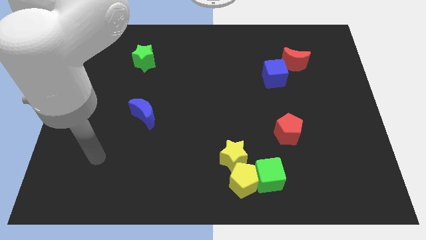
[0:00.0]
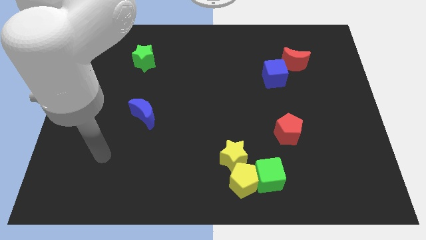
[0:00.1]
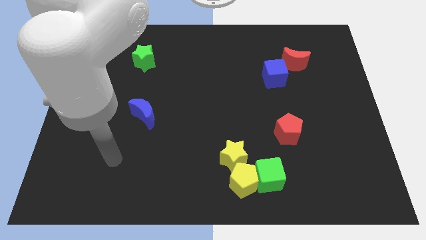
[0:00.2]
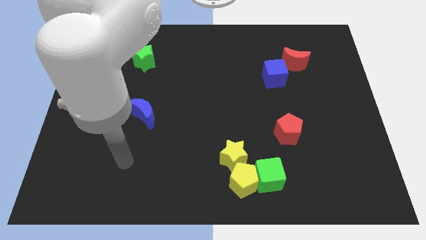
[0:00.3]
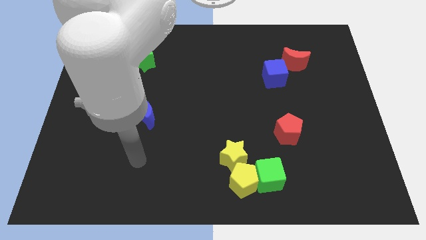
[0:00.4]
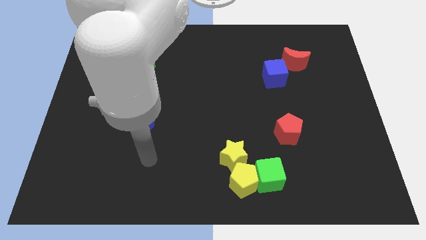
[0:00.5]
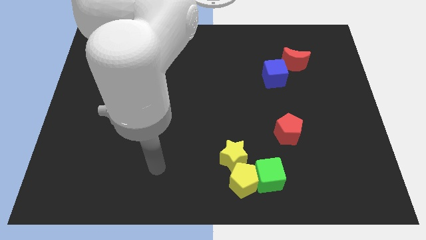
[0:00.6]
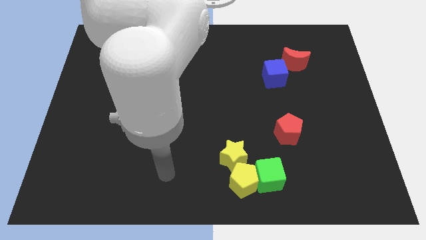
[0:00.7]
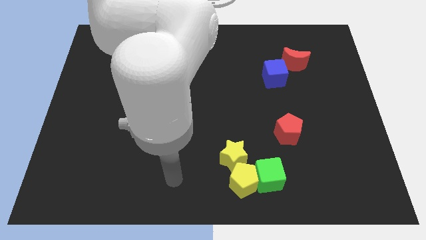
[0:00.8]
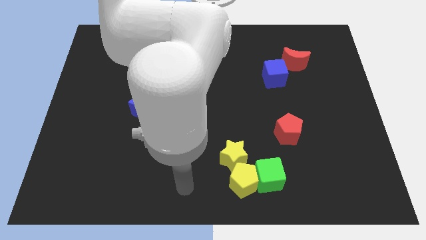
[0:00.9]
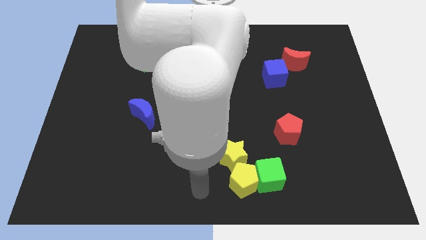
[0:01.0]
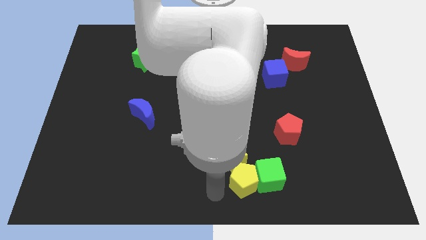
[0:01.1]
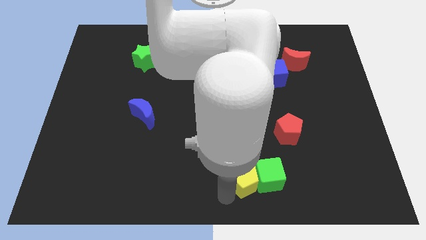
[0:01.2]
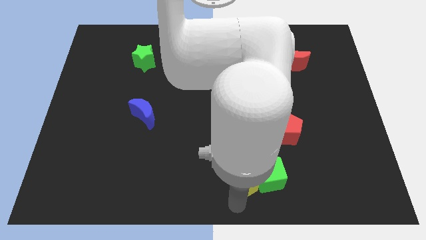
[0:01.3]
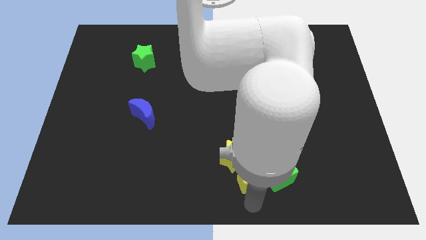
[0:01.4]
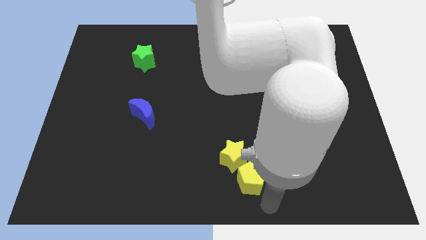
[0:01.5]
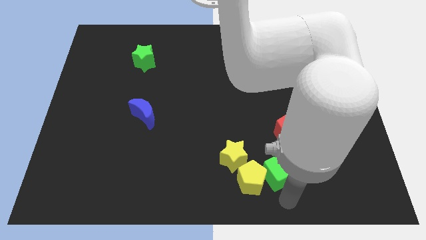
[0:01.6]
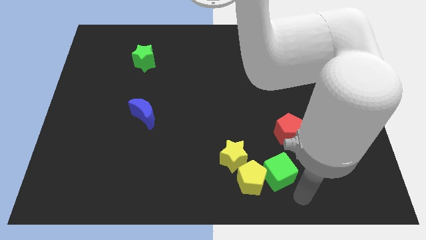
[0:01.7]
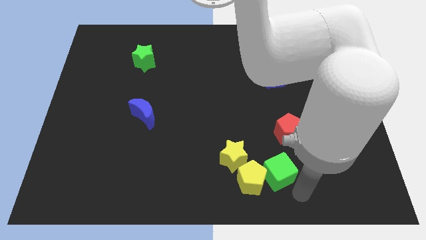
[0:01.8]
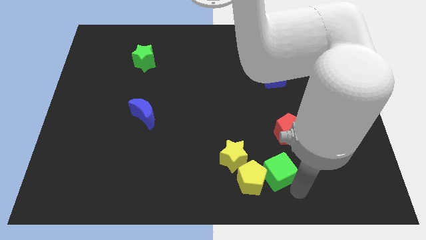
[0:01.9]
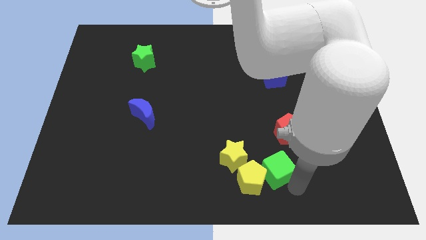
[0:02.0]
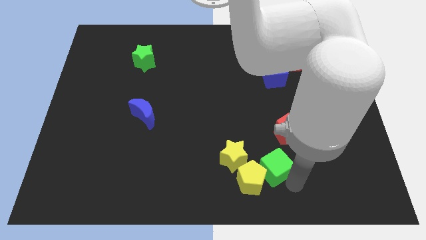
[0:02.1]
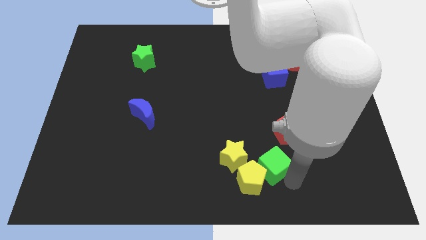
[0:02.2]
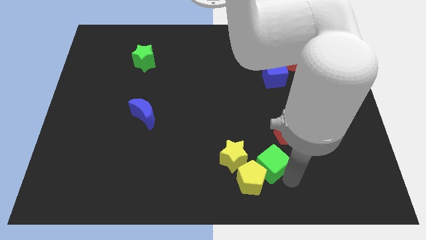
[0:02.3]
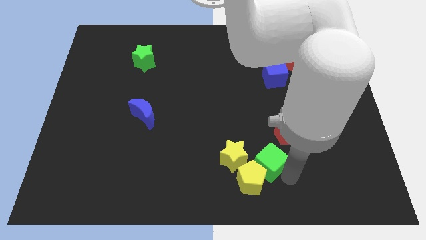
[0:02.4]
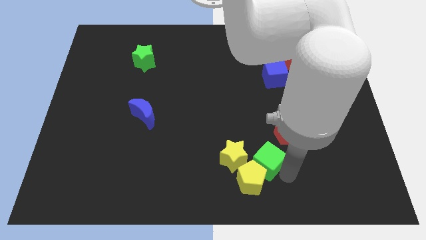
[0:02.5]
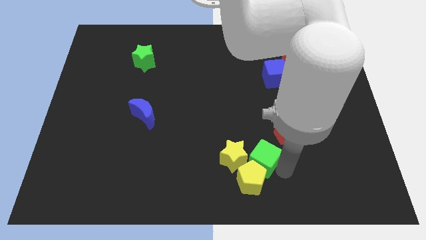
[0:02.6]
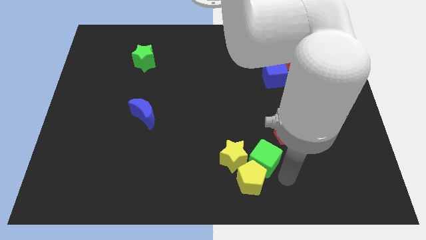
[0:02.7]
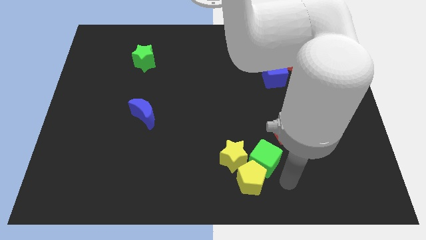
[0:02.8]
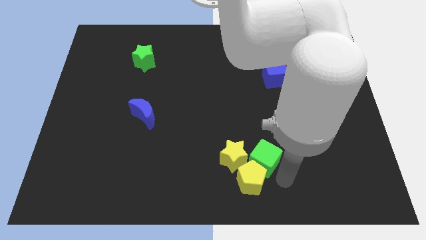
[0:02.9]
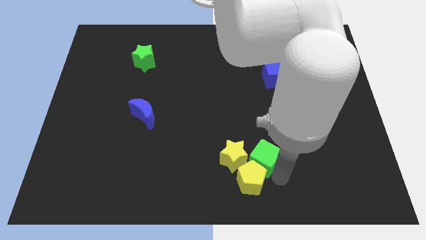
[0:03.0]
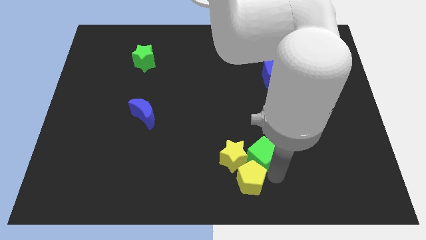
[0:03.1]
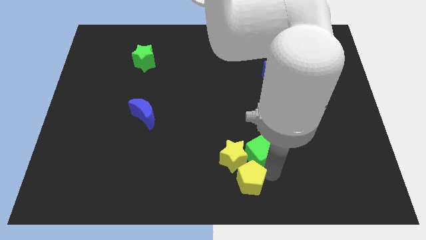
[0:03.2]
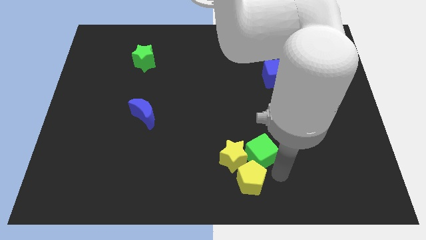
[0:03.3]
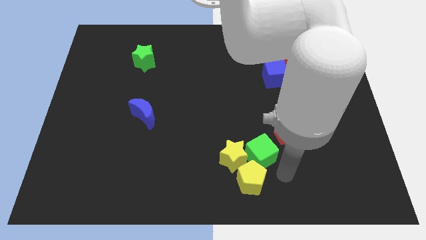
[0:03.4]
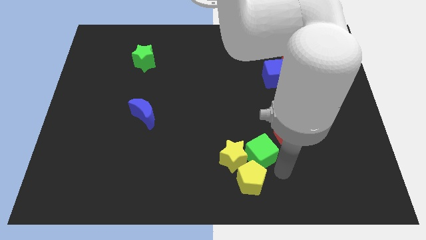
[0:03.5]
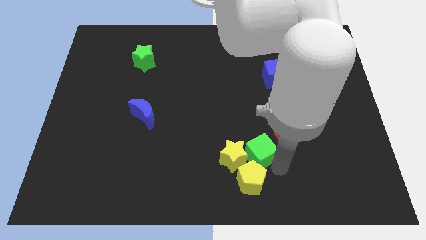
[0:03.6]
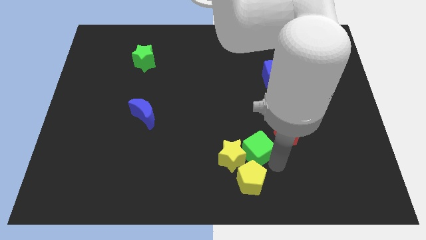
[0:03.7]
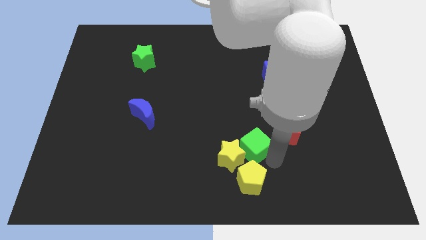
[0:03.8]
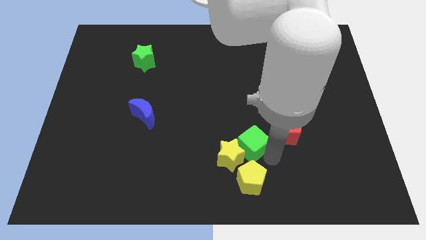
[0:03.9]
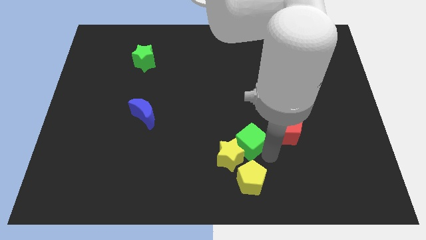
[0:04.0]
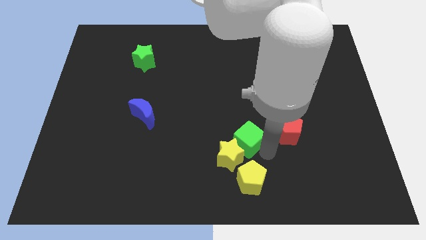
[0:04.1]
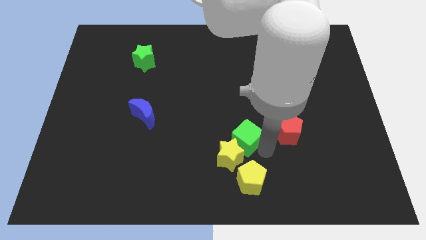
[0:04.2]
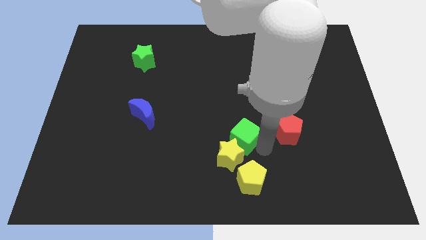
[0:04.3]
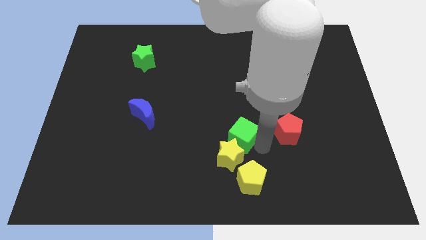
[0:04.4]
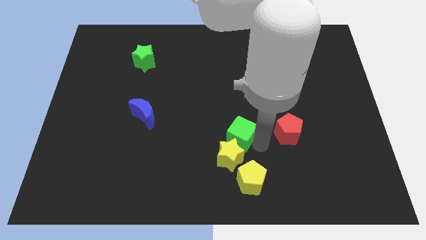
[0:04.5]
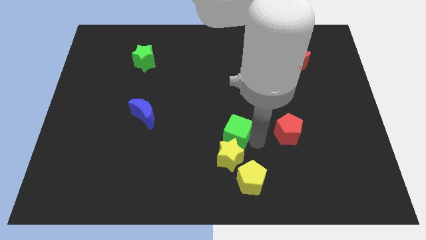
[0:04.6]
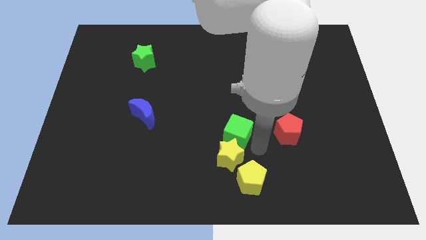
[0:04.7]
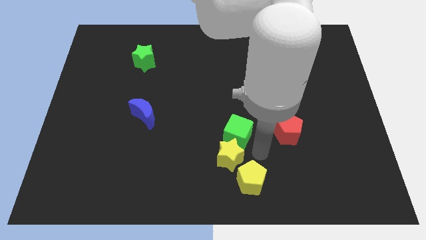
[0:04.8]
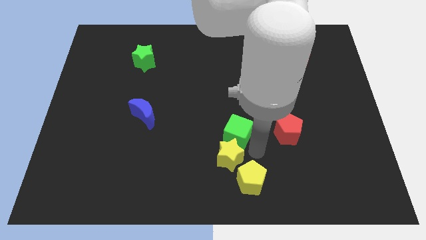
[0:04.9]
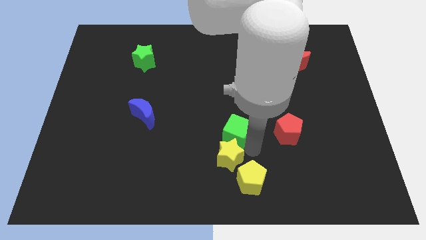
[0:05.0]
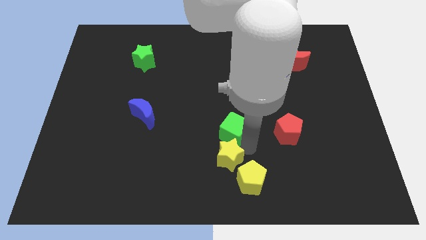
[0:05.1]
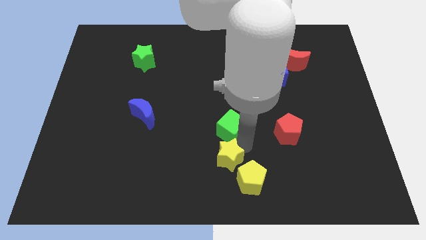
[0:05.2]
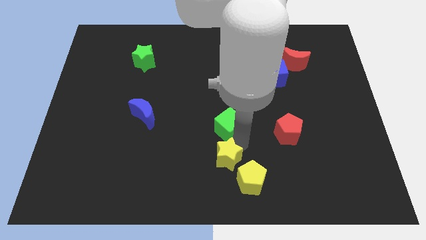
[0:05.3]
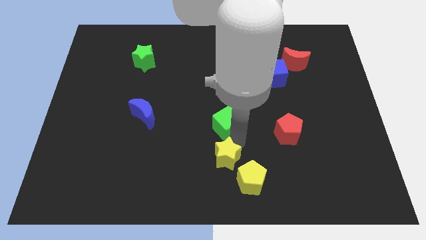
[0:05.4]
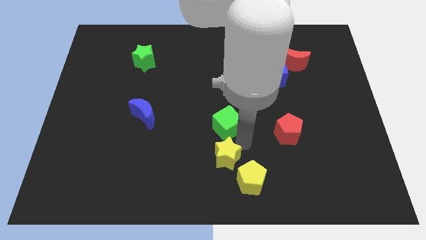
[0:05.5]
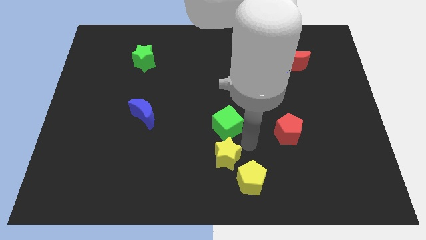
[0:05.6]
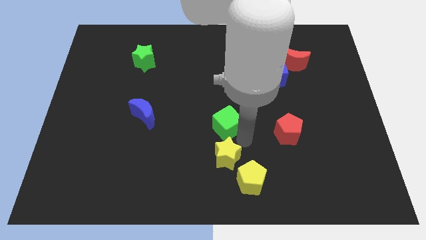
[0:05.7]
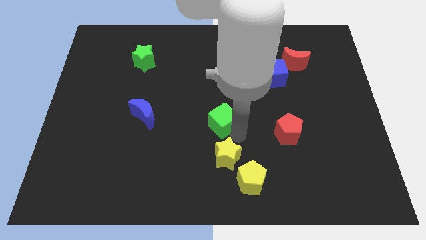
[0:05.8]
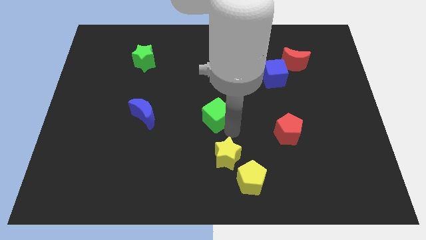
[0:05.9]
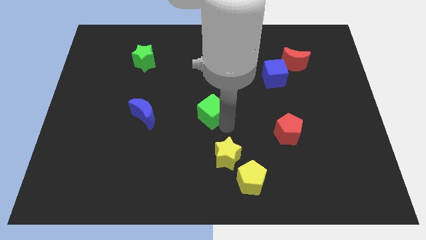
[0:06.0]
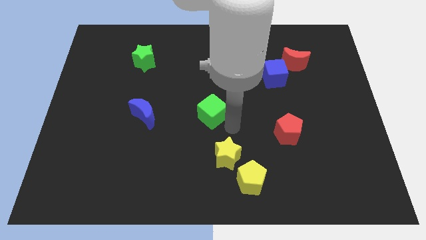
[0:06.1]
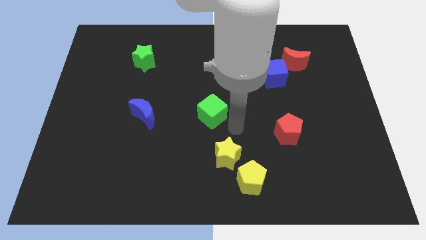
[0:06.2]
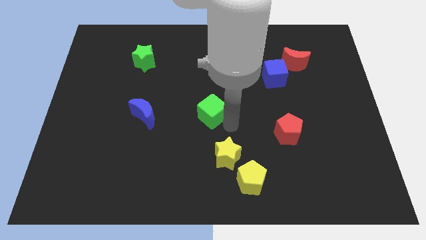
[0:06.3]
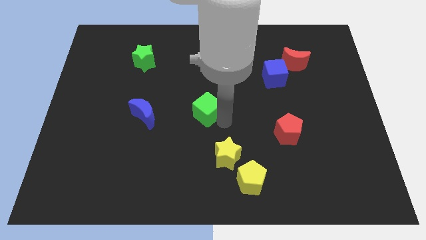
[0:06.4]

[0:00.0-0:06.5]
push the green cube up and to the left diagonally

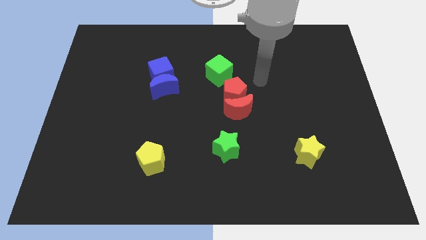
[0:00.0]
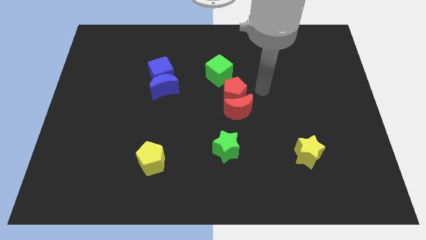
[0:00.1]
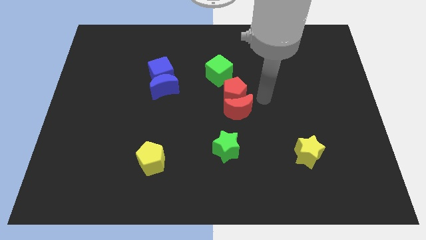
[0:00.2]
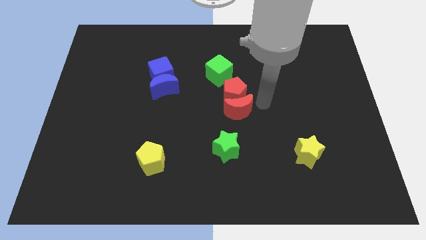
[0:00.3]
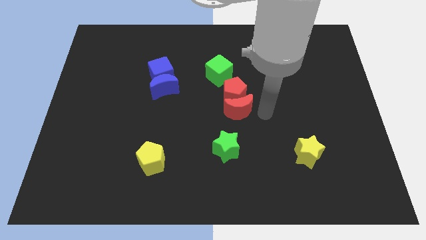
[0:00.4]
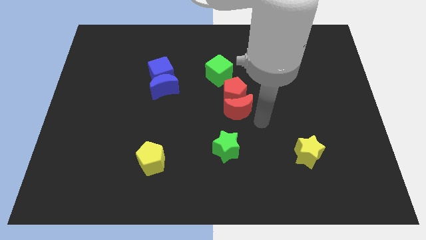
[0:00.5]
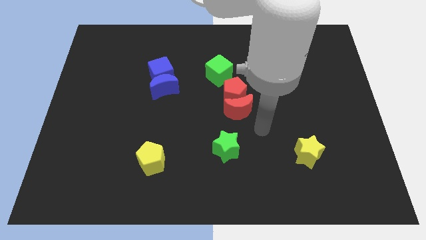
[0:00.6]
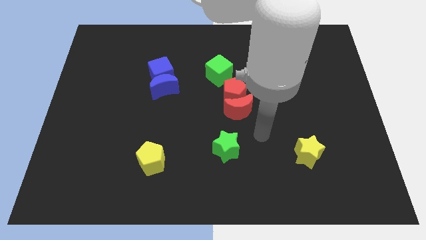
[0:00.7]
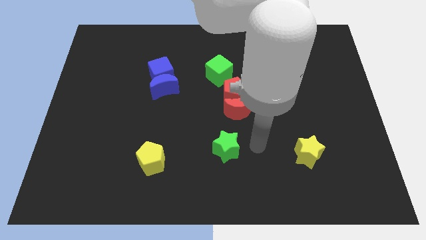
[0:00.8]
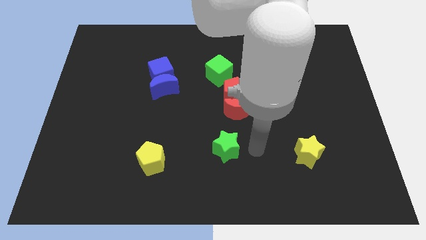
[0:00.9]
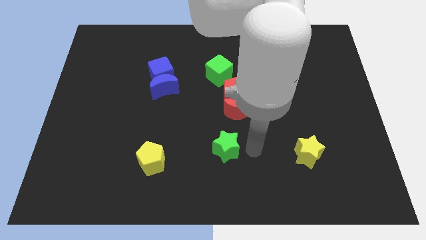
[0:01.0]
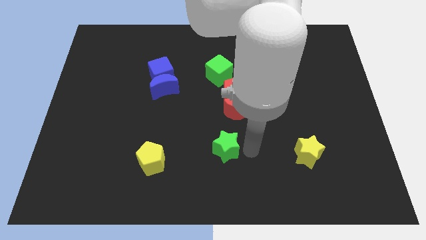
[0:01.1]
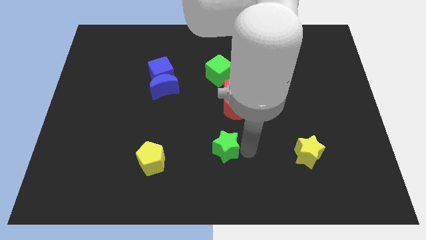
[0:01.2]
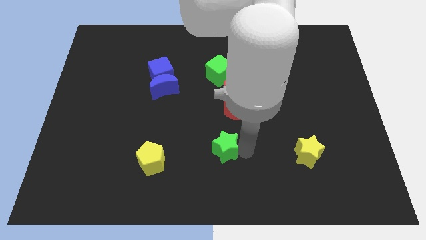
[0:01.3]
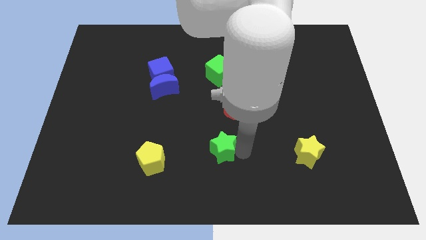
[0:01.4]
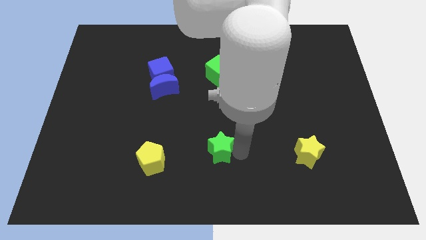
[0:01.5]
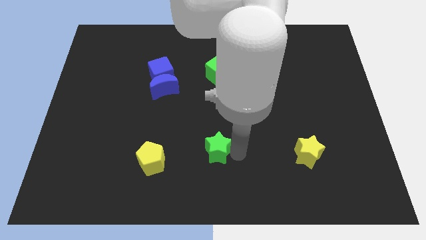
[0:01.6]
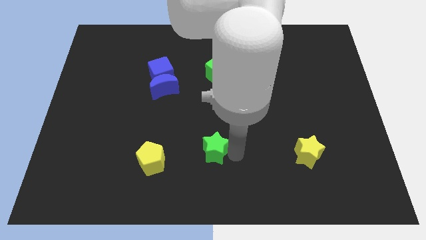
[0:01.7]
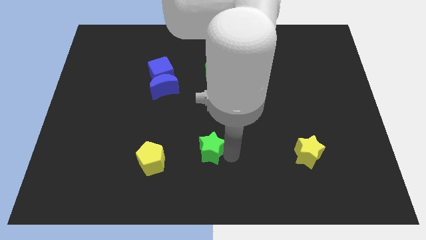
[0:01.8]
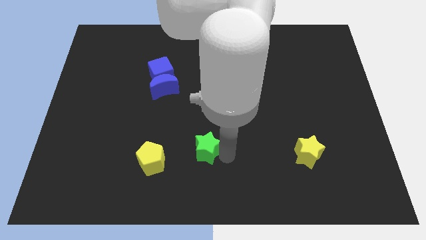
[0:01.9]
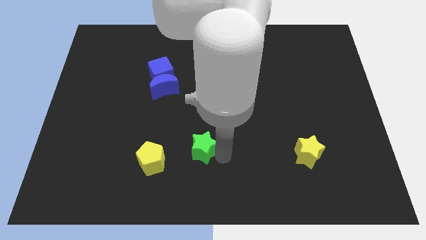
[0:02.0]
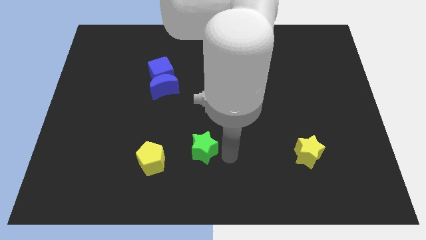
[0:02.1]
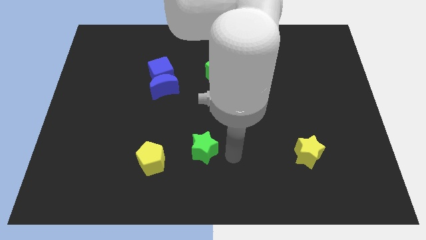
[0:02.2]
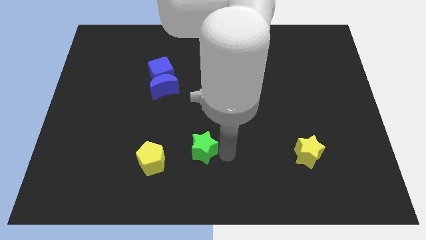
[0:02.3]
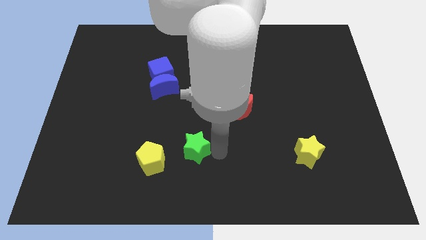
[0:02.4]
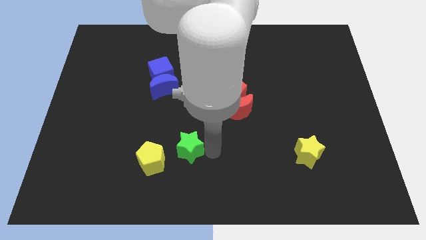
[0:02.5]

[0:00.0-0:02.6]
slide the green star to the left somewhat
